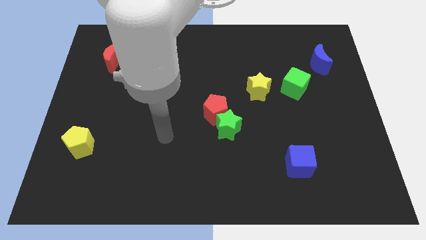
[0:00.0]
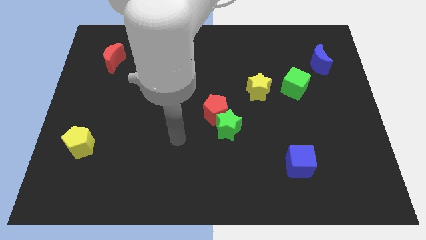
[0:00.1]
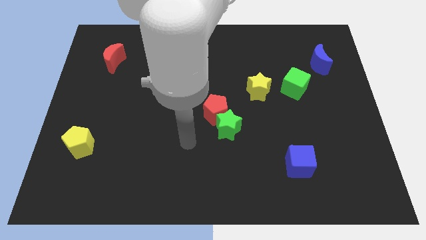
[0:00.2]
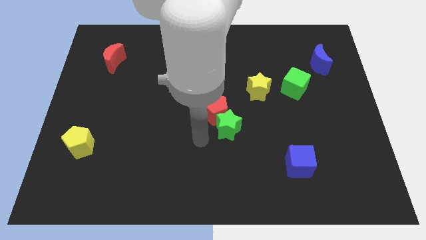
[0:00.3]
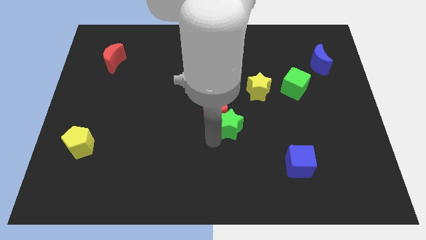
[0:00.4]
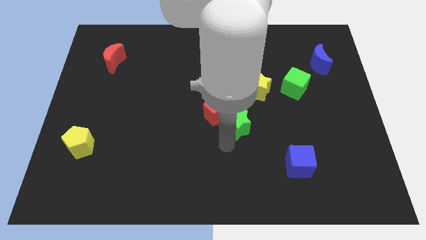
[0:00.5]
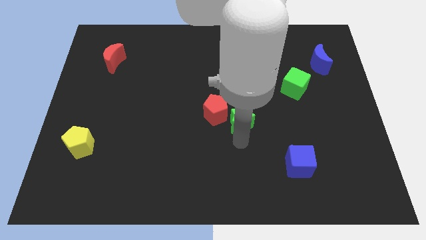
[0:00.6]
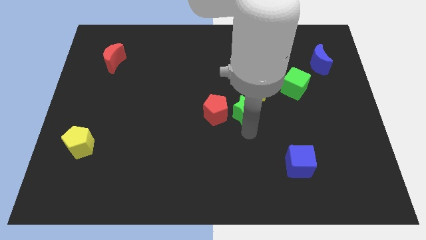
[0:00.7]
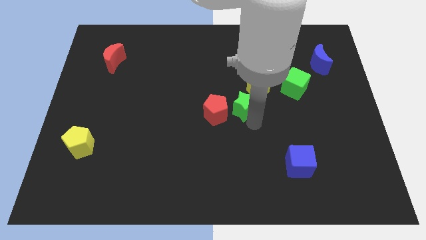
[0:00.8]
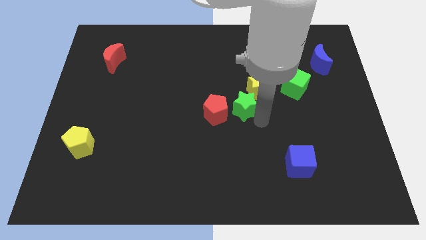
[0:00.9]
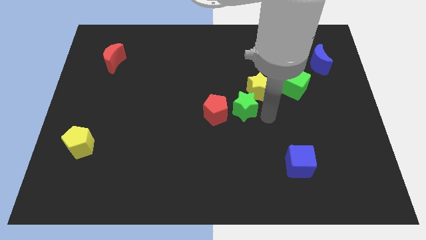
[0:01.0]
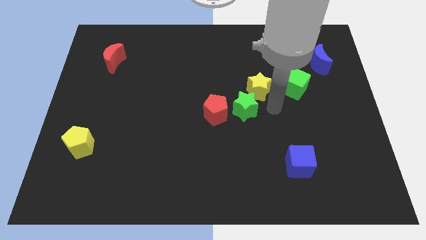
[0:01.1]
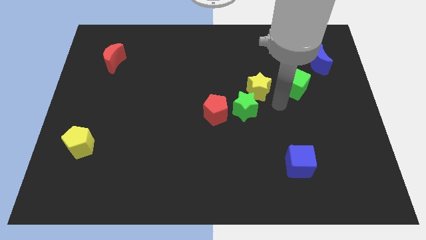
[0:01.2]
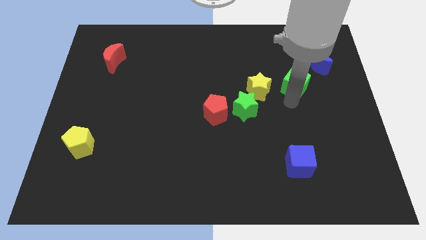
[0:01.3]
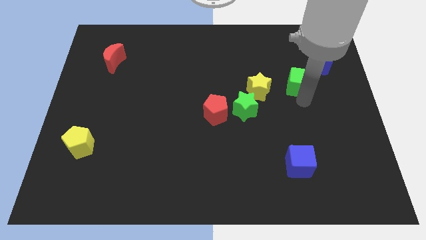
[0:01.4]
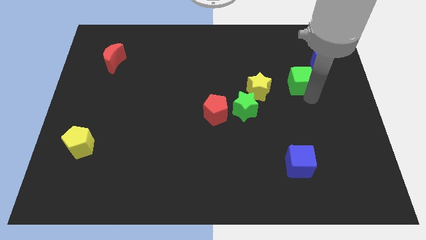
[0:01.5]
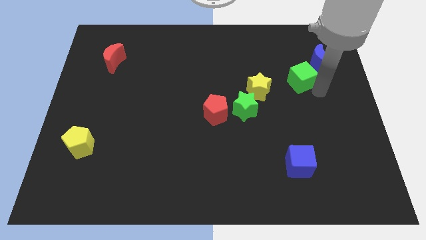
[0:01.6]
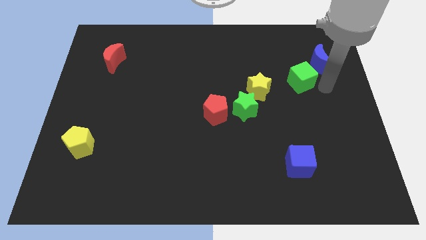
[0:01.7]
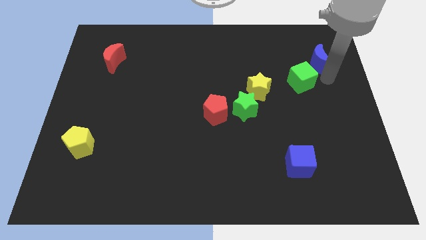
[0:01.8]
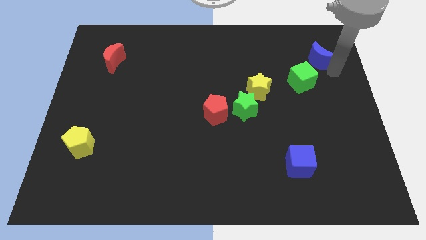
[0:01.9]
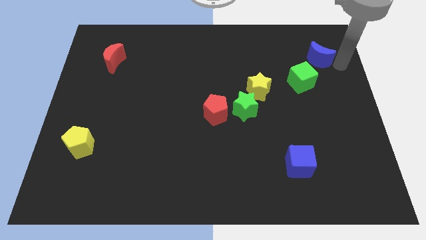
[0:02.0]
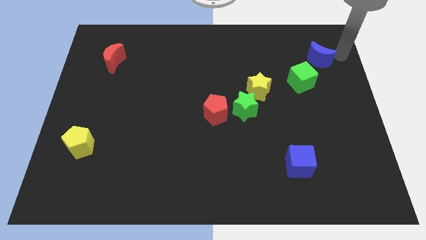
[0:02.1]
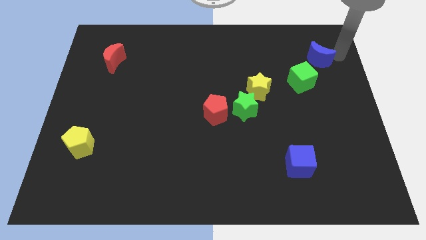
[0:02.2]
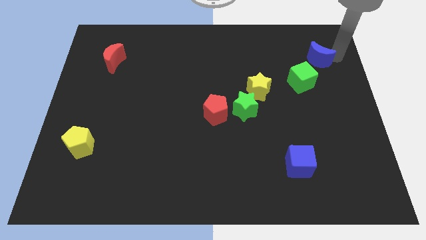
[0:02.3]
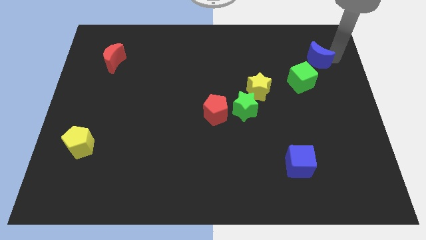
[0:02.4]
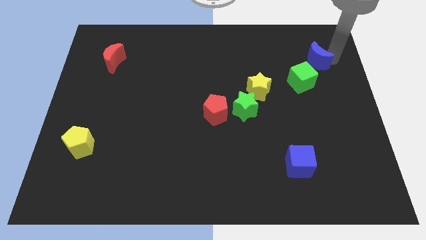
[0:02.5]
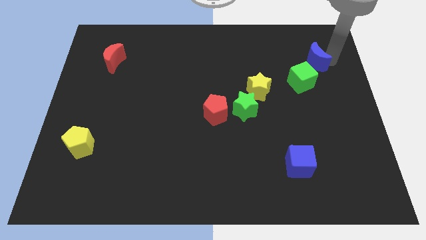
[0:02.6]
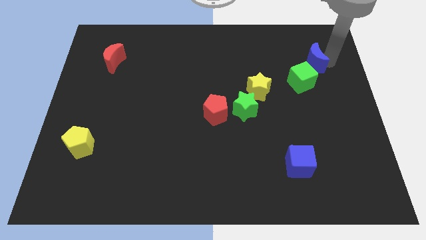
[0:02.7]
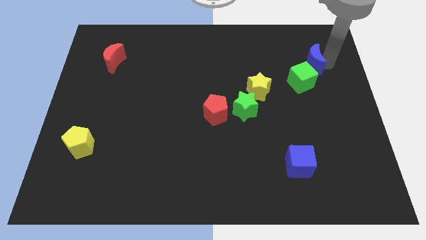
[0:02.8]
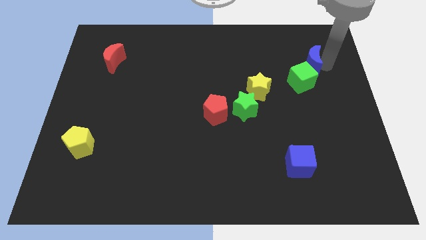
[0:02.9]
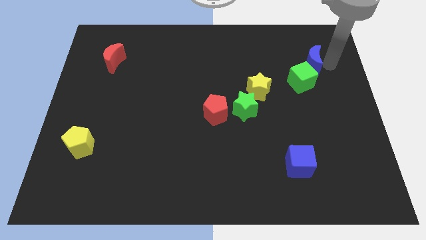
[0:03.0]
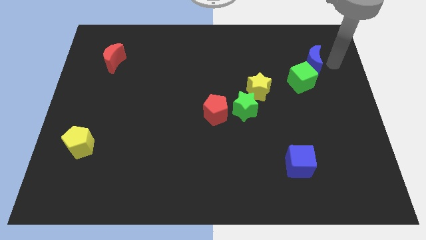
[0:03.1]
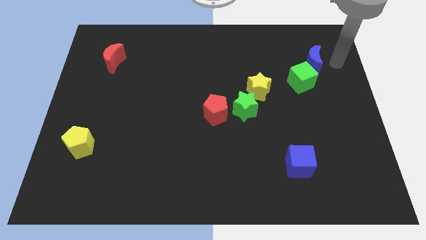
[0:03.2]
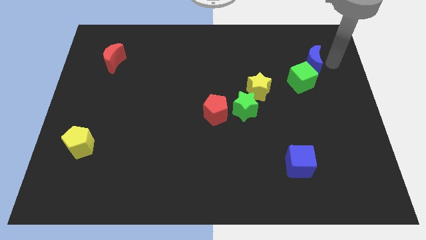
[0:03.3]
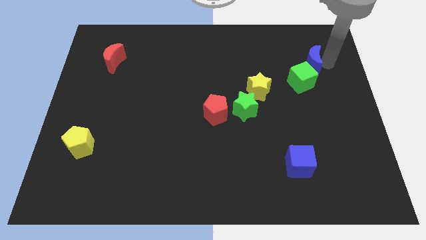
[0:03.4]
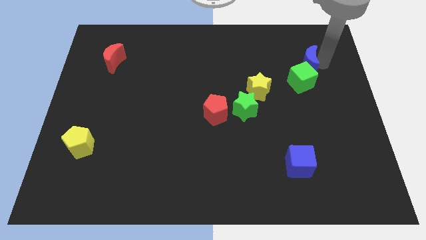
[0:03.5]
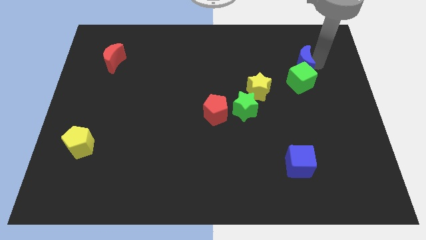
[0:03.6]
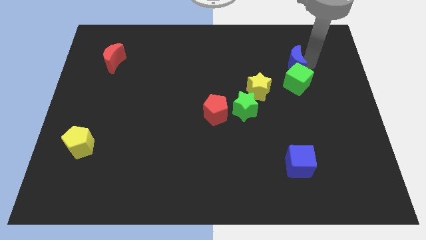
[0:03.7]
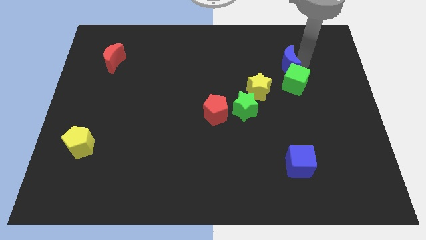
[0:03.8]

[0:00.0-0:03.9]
push the blue moon a little bit to the left

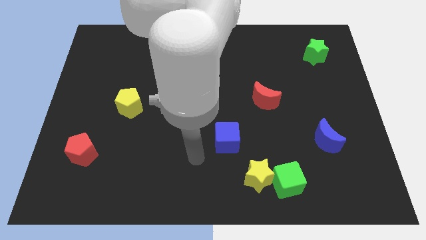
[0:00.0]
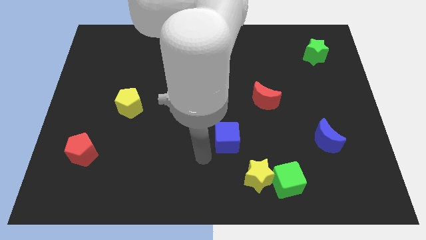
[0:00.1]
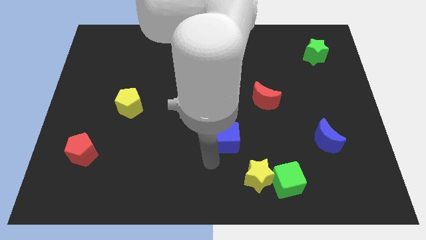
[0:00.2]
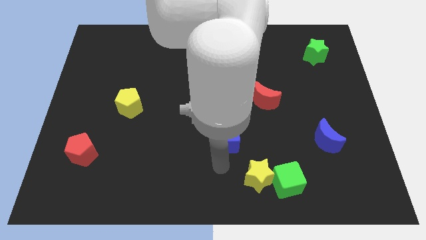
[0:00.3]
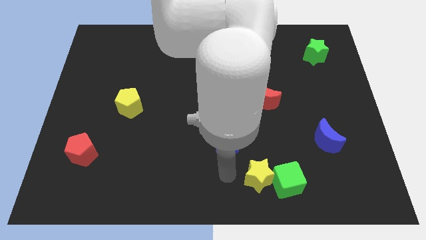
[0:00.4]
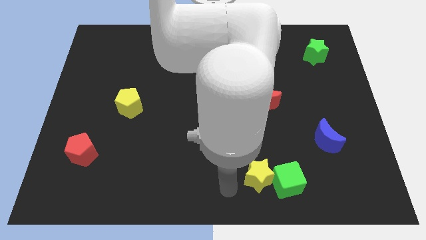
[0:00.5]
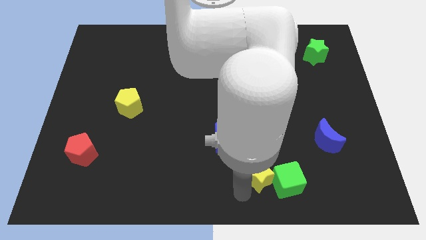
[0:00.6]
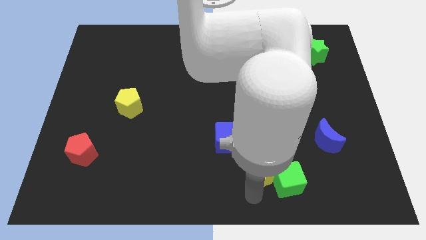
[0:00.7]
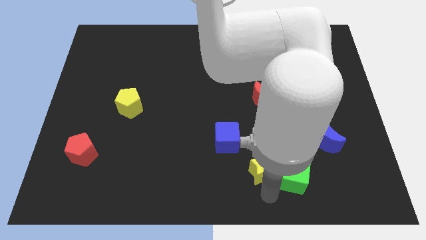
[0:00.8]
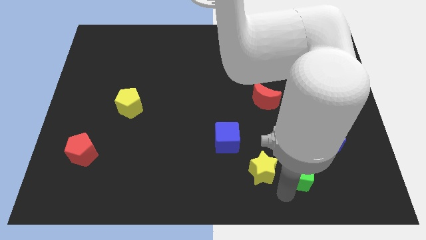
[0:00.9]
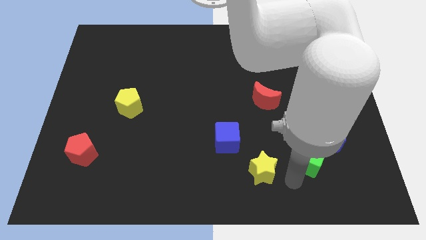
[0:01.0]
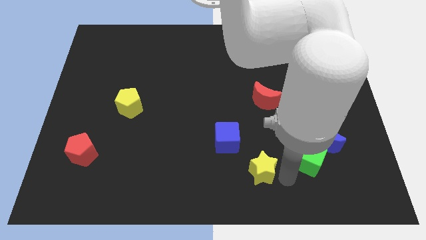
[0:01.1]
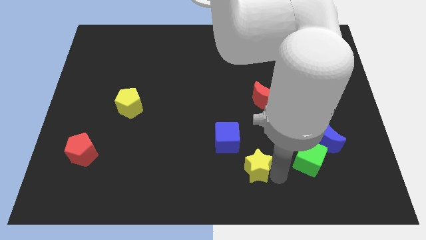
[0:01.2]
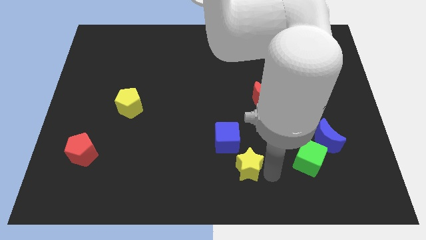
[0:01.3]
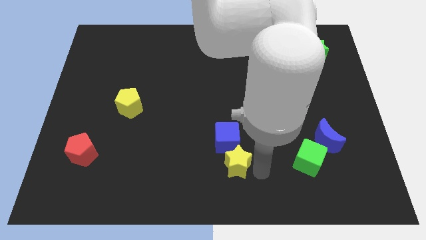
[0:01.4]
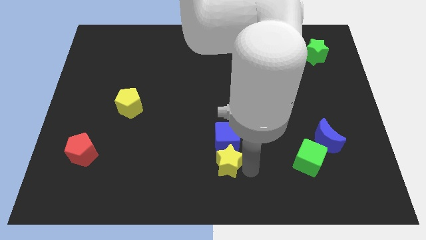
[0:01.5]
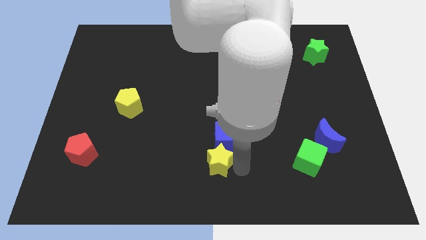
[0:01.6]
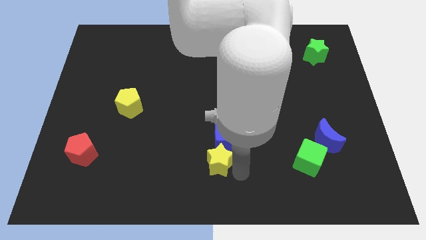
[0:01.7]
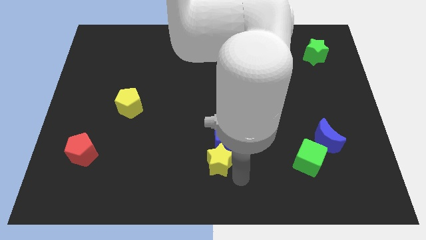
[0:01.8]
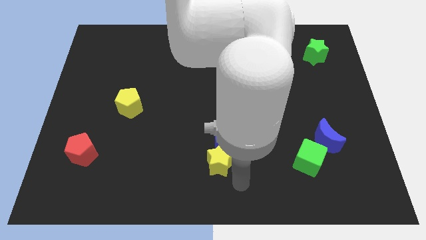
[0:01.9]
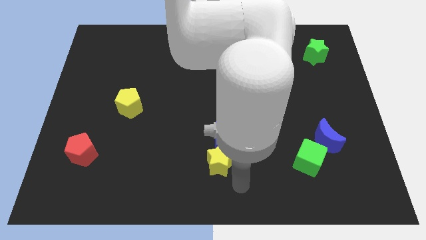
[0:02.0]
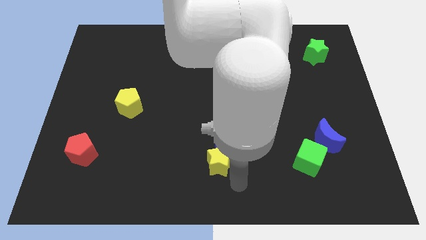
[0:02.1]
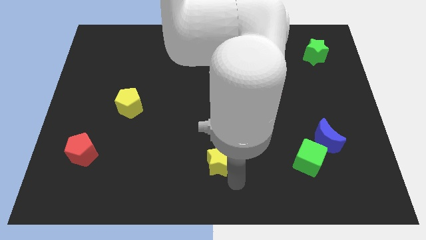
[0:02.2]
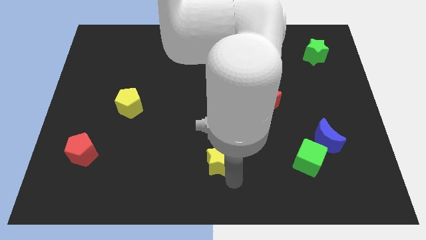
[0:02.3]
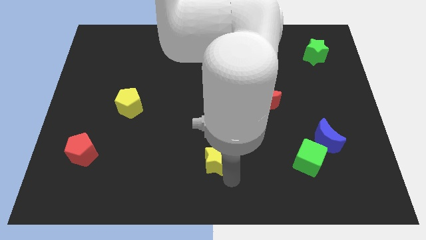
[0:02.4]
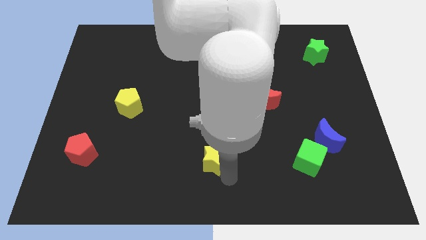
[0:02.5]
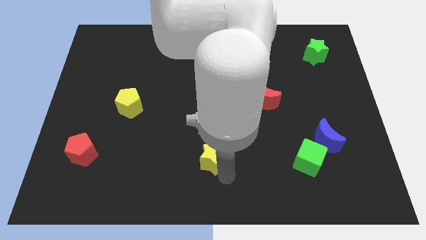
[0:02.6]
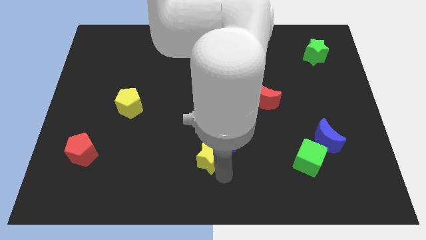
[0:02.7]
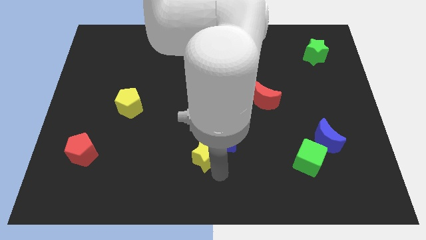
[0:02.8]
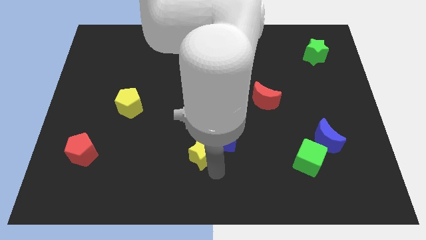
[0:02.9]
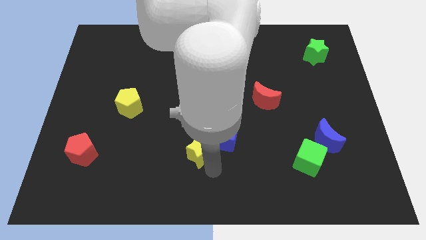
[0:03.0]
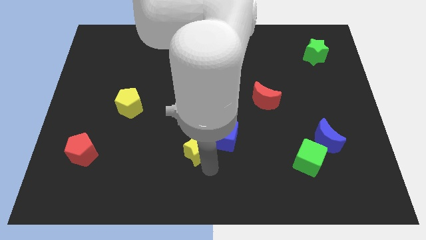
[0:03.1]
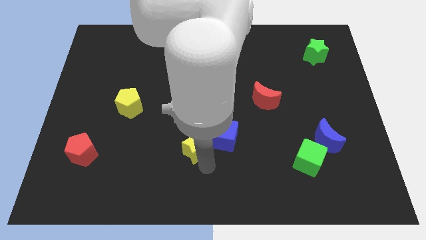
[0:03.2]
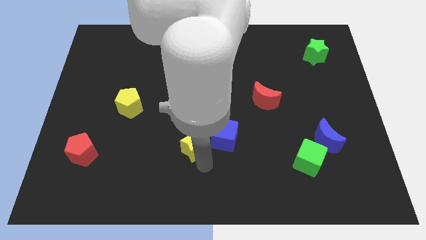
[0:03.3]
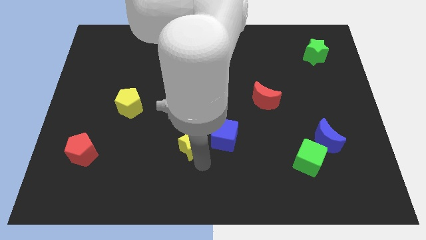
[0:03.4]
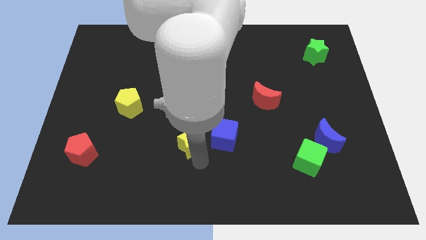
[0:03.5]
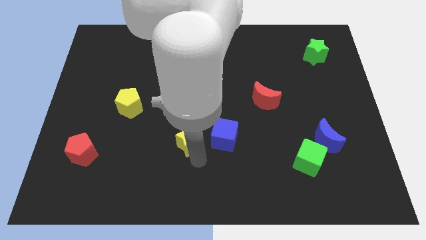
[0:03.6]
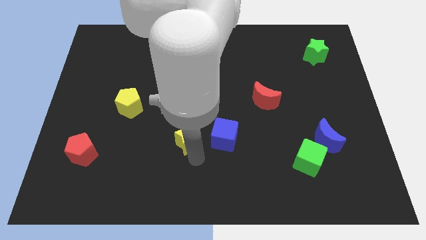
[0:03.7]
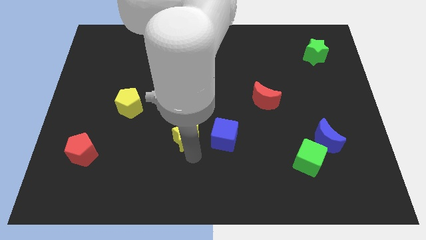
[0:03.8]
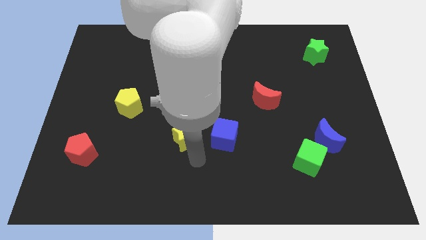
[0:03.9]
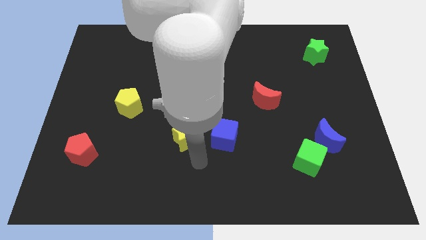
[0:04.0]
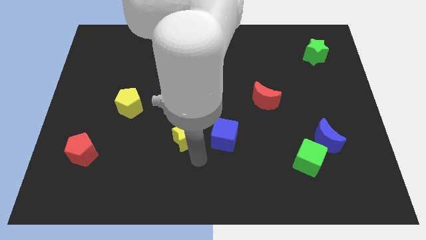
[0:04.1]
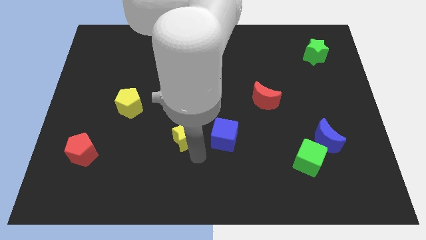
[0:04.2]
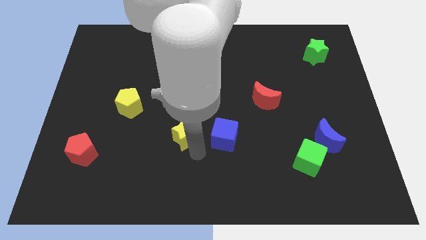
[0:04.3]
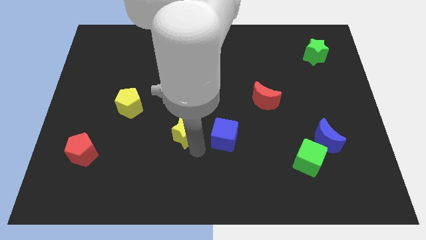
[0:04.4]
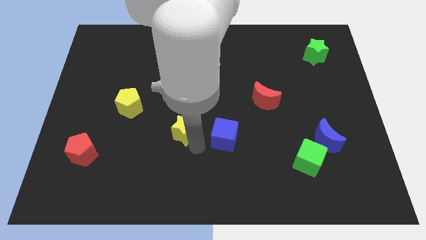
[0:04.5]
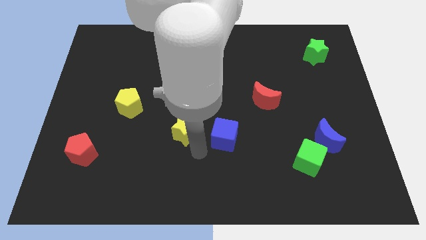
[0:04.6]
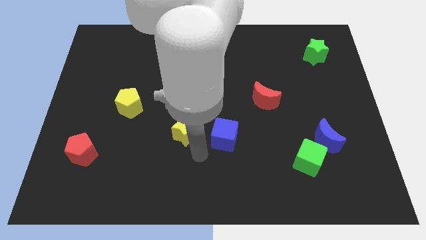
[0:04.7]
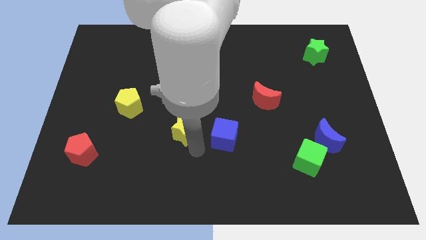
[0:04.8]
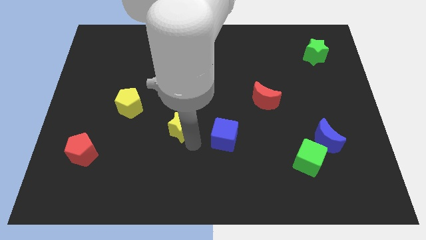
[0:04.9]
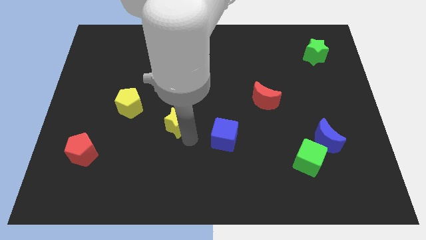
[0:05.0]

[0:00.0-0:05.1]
push the yellow star diagonally upwards and left
